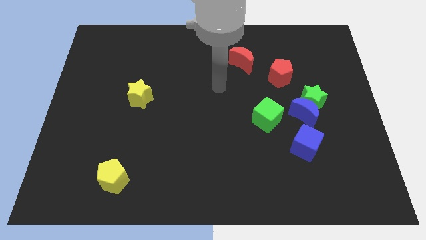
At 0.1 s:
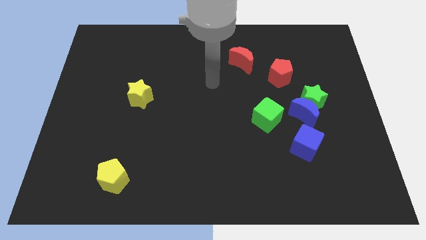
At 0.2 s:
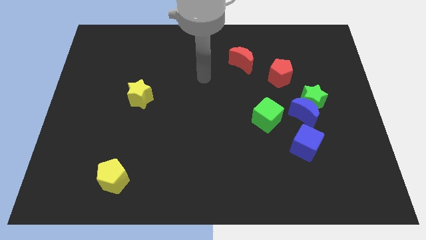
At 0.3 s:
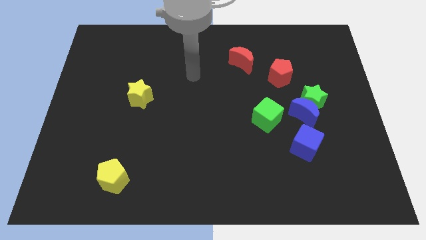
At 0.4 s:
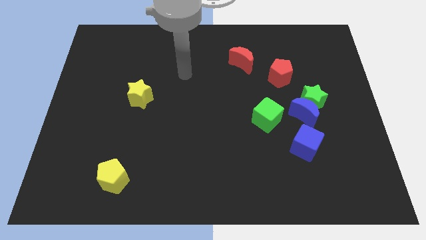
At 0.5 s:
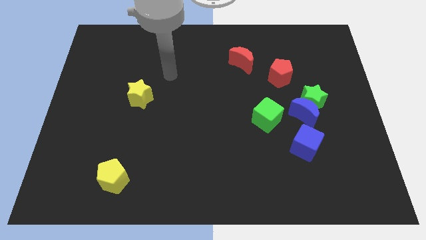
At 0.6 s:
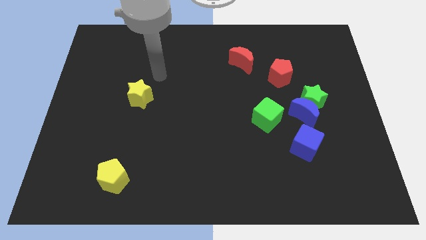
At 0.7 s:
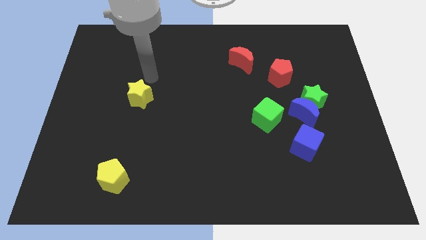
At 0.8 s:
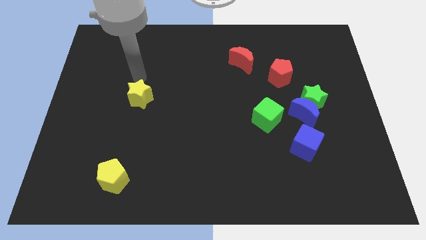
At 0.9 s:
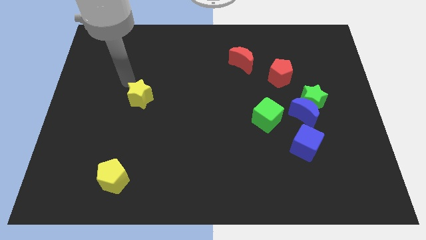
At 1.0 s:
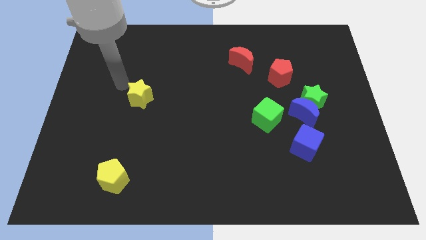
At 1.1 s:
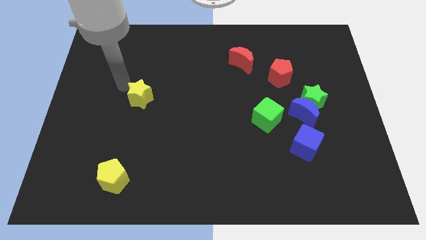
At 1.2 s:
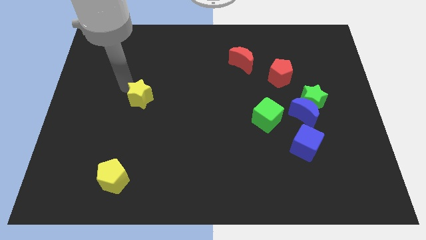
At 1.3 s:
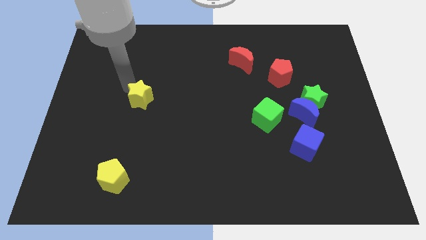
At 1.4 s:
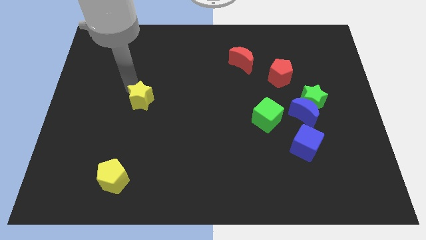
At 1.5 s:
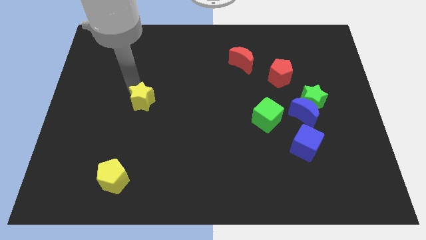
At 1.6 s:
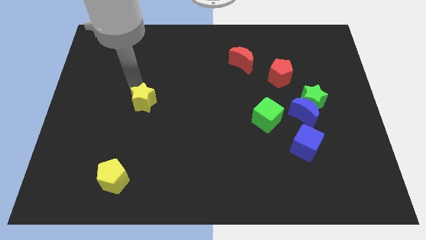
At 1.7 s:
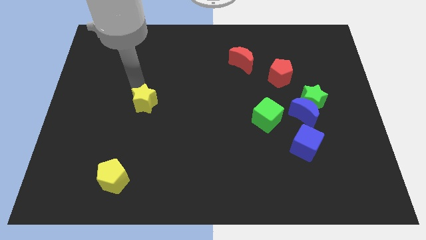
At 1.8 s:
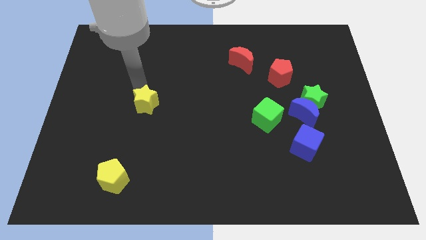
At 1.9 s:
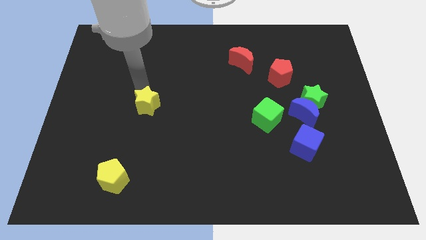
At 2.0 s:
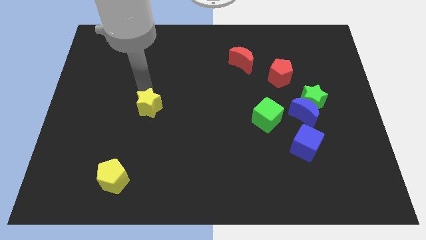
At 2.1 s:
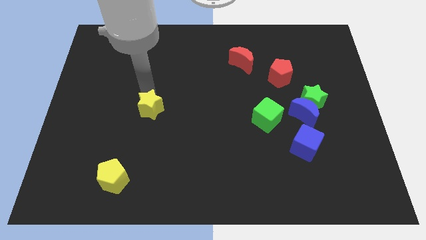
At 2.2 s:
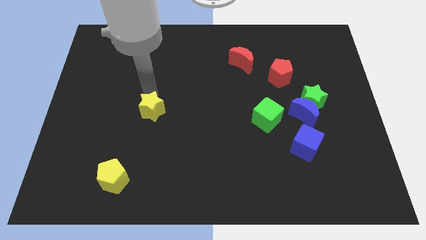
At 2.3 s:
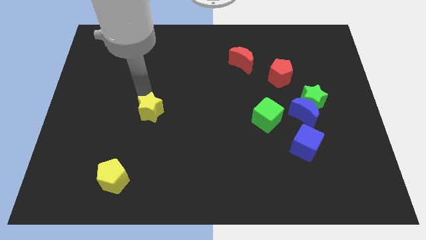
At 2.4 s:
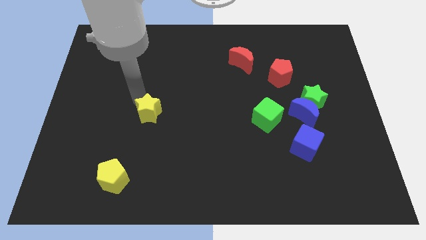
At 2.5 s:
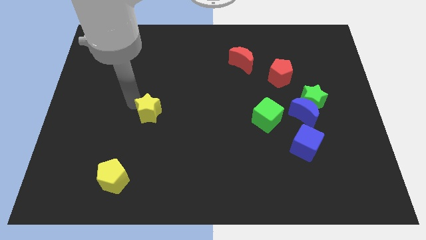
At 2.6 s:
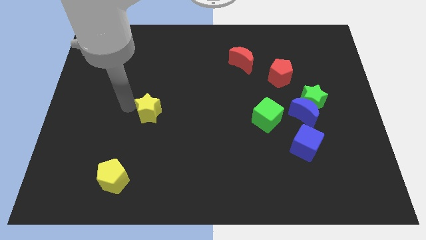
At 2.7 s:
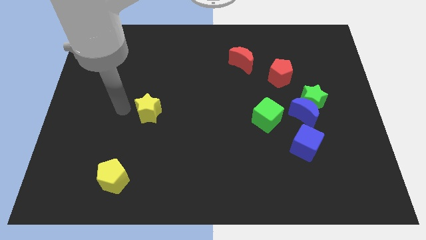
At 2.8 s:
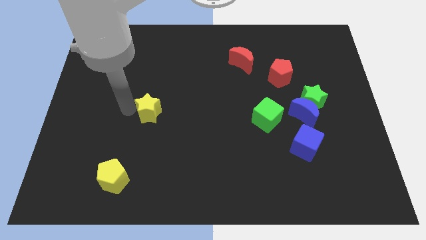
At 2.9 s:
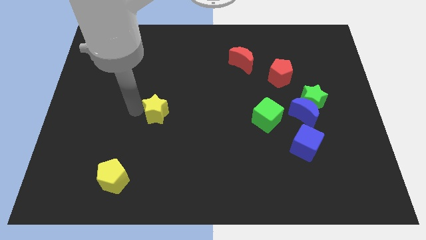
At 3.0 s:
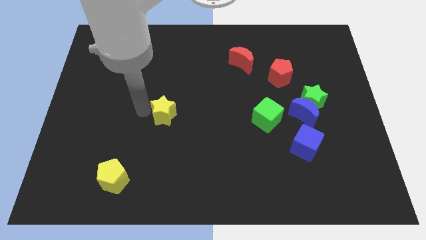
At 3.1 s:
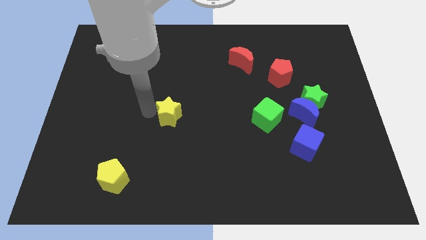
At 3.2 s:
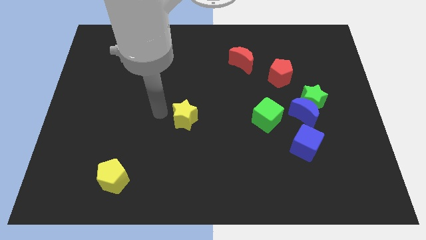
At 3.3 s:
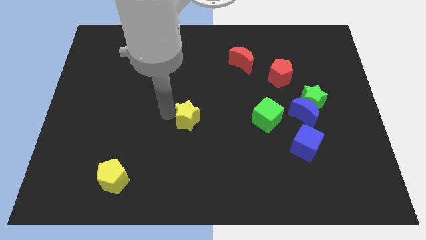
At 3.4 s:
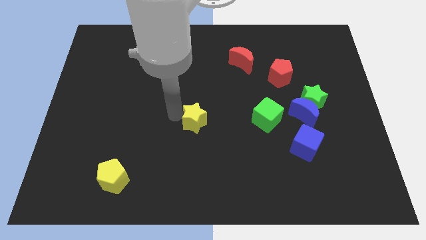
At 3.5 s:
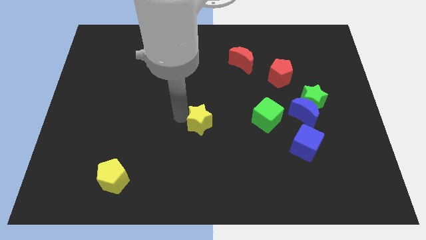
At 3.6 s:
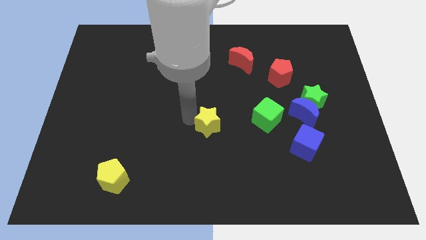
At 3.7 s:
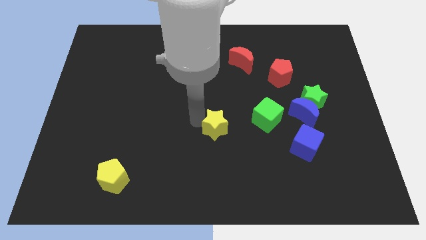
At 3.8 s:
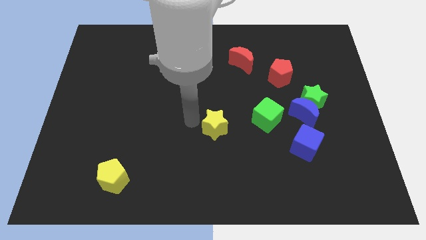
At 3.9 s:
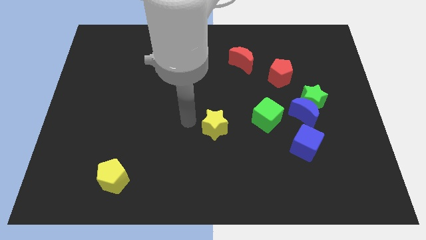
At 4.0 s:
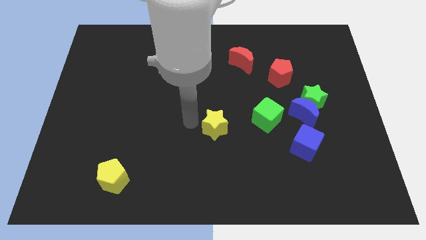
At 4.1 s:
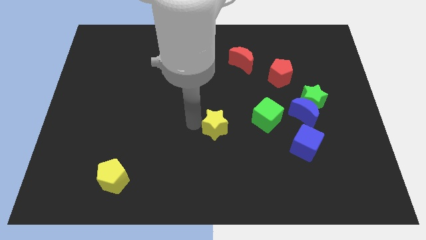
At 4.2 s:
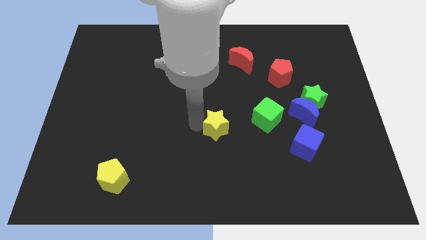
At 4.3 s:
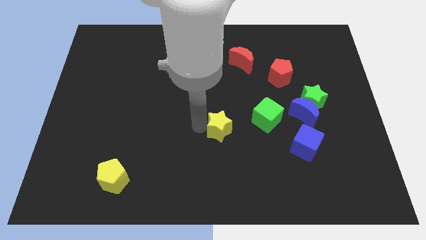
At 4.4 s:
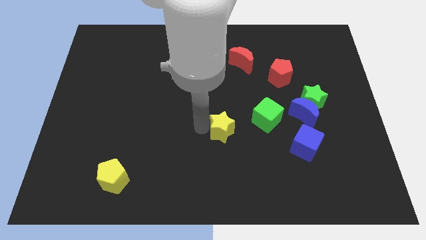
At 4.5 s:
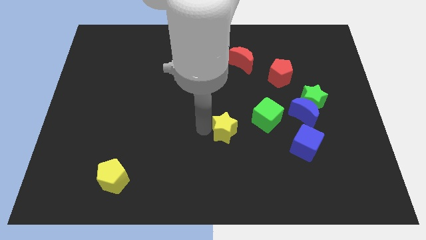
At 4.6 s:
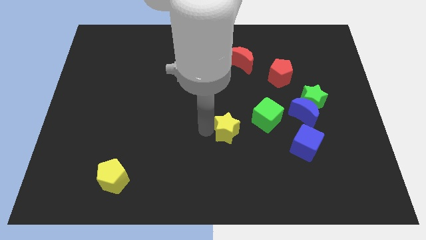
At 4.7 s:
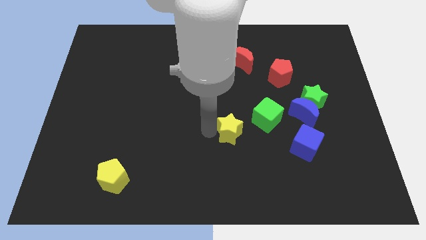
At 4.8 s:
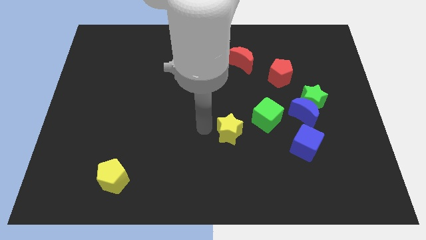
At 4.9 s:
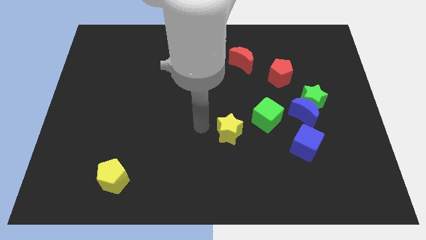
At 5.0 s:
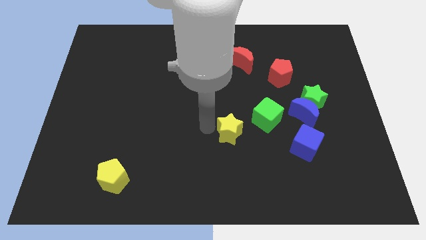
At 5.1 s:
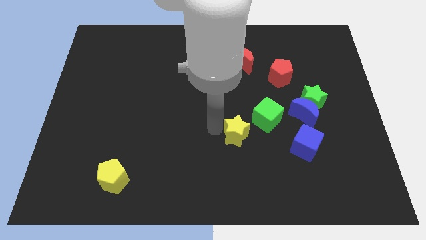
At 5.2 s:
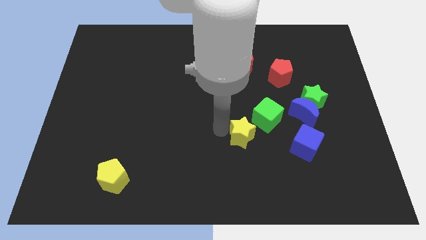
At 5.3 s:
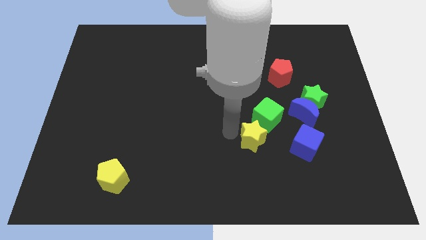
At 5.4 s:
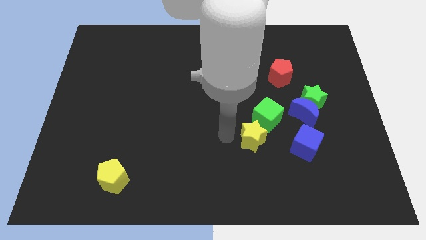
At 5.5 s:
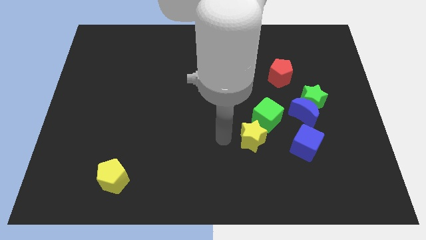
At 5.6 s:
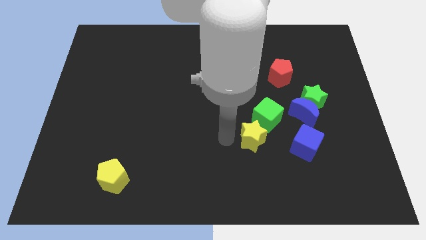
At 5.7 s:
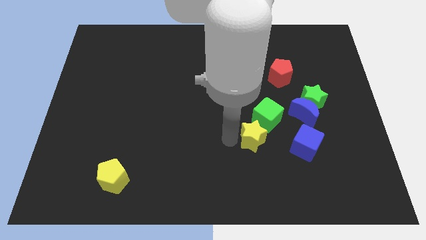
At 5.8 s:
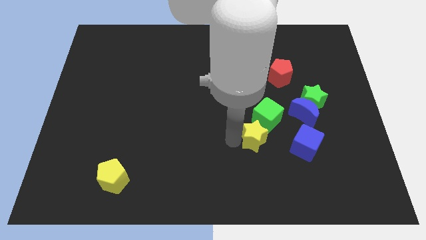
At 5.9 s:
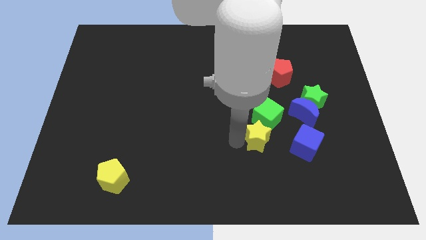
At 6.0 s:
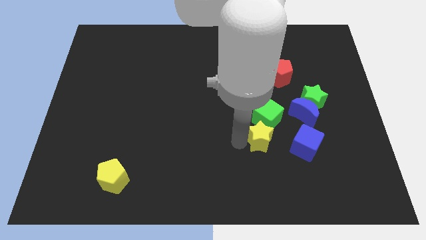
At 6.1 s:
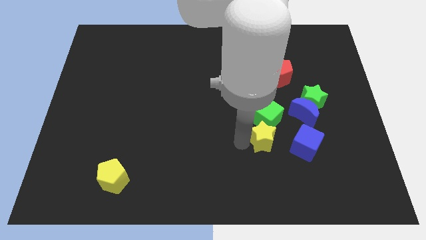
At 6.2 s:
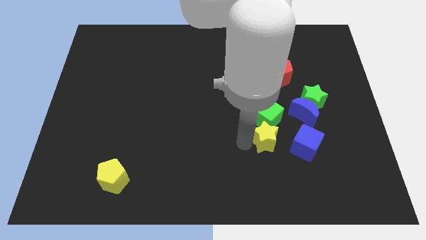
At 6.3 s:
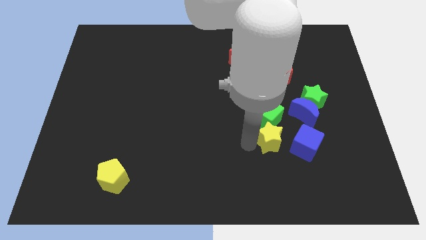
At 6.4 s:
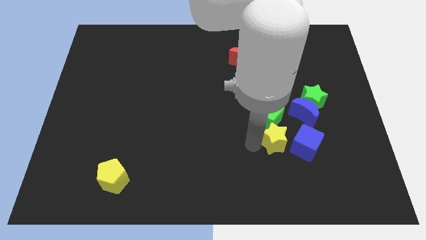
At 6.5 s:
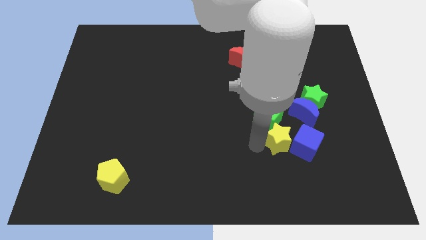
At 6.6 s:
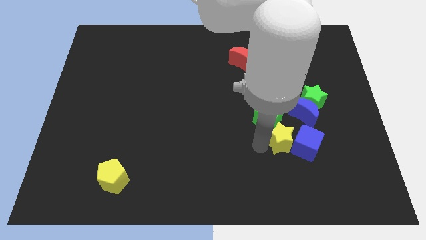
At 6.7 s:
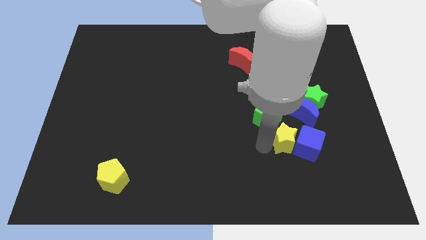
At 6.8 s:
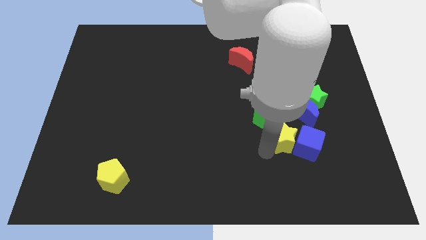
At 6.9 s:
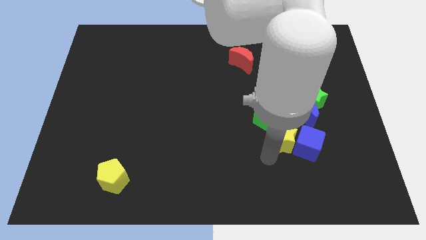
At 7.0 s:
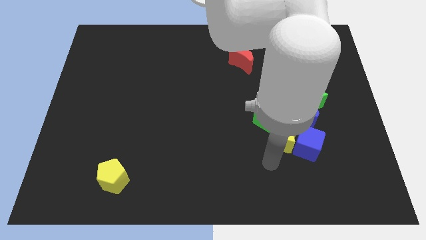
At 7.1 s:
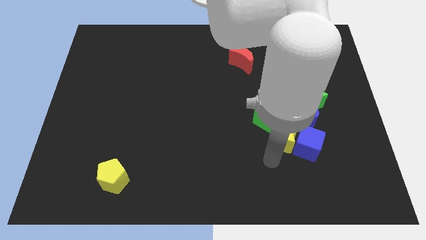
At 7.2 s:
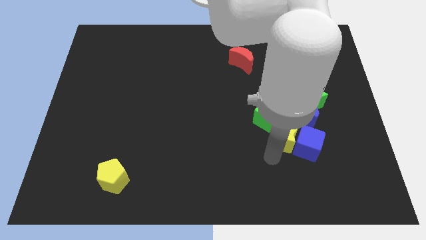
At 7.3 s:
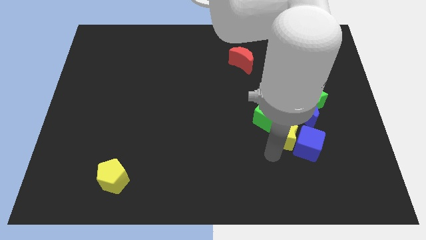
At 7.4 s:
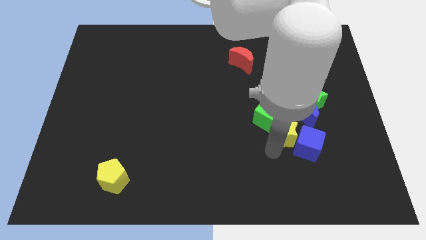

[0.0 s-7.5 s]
move the yellow star to the bottom left side of the green star
